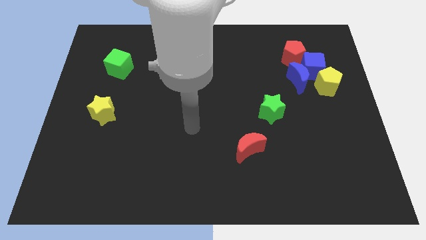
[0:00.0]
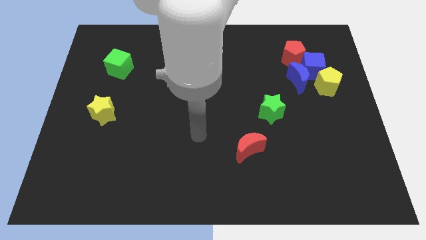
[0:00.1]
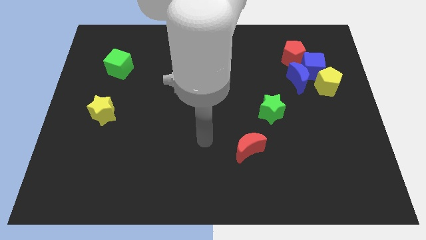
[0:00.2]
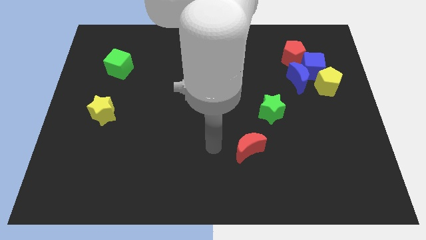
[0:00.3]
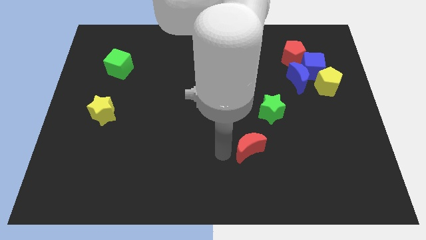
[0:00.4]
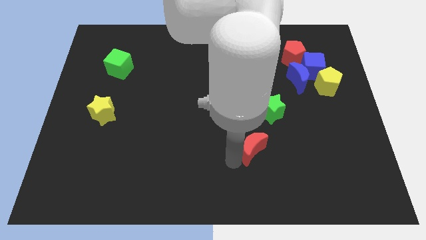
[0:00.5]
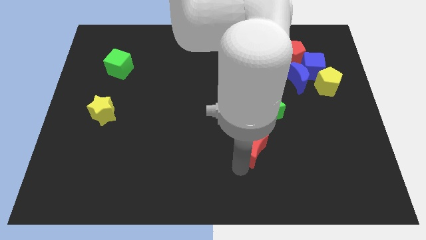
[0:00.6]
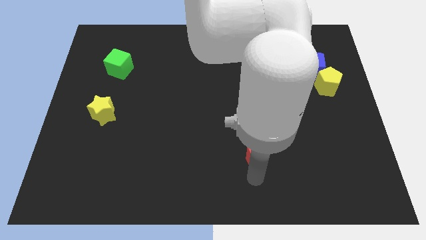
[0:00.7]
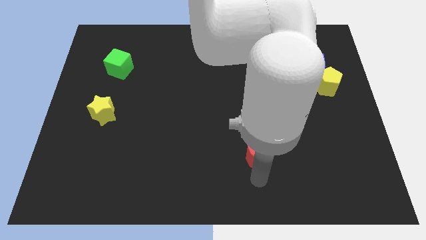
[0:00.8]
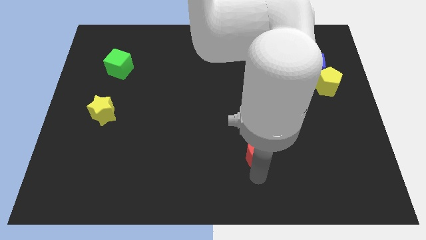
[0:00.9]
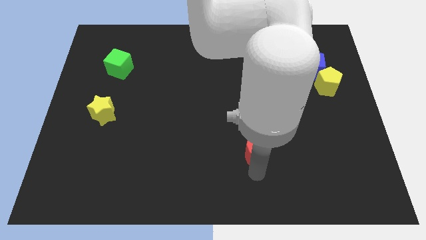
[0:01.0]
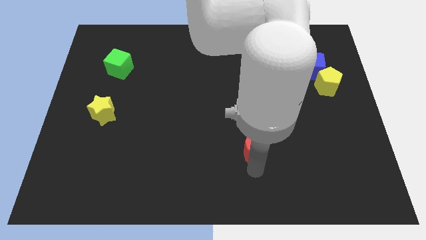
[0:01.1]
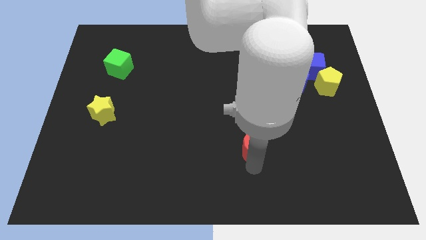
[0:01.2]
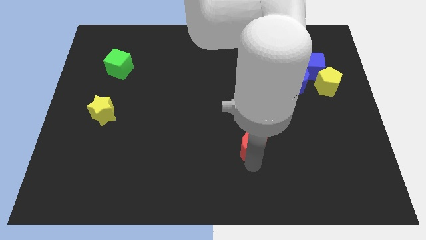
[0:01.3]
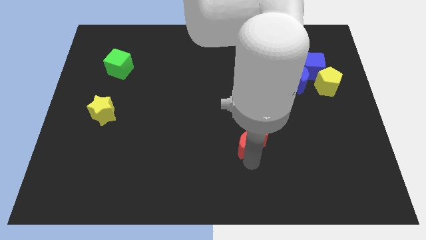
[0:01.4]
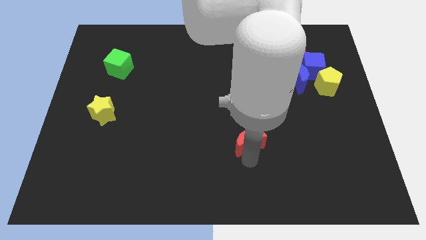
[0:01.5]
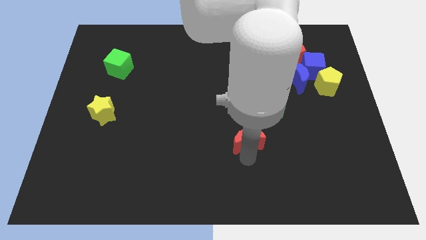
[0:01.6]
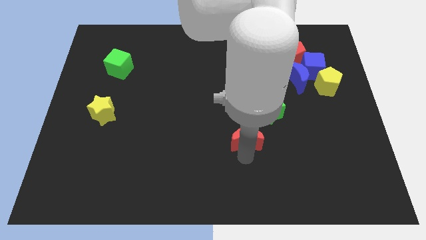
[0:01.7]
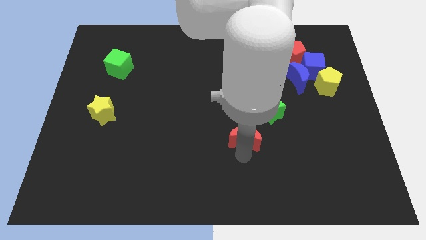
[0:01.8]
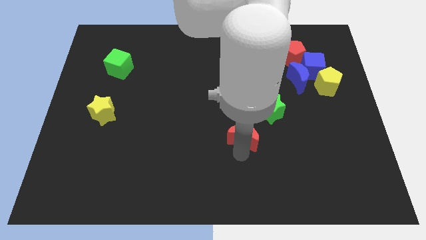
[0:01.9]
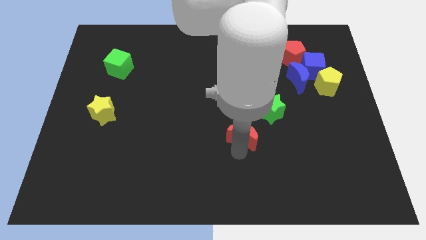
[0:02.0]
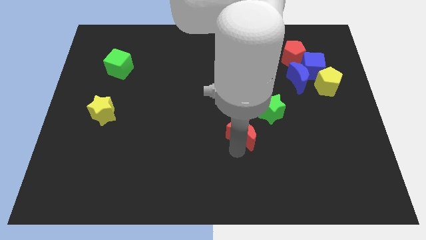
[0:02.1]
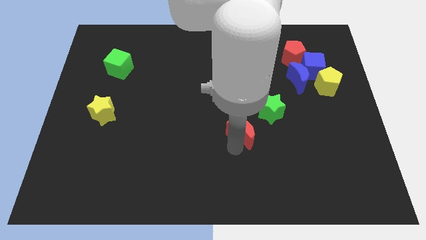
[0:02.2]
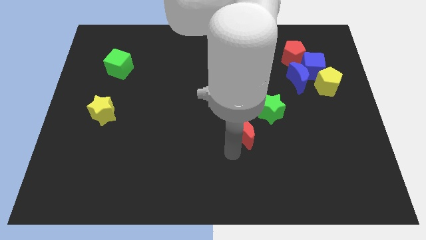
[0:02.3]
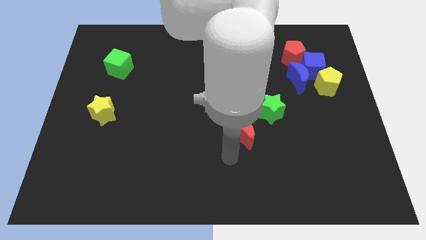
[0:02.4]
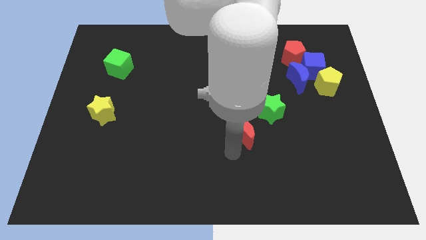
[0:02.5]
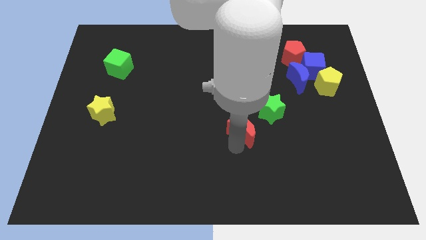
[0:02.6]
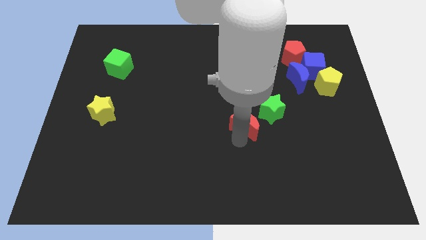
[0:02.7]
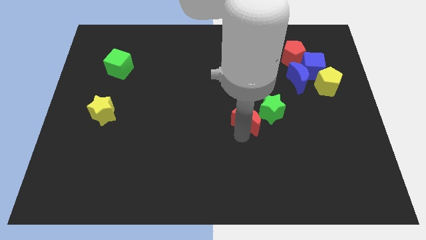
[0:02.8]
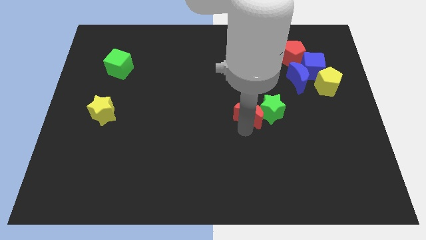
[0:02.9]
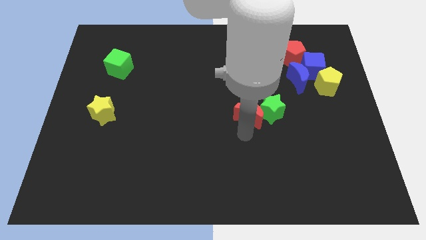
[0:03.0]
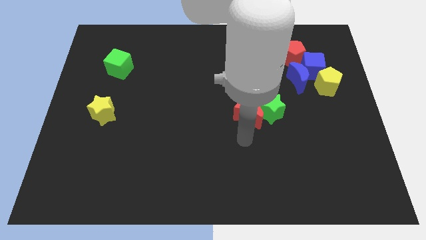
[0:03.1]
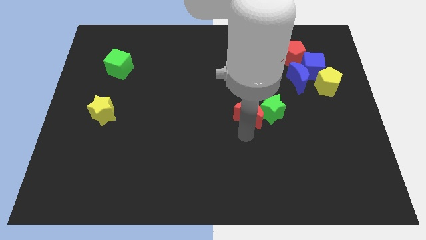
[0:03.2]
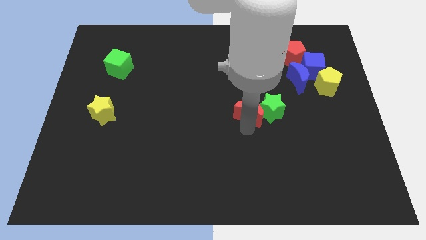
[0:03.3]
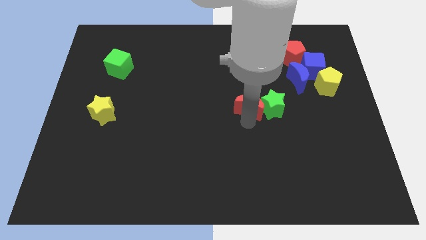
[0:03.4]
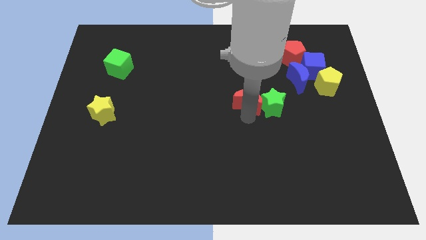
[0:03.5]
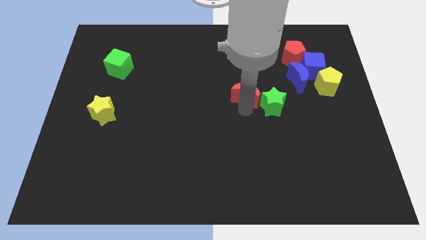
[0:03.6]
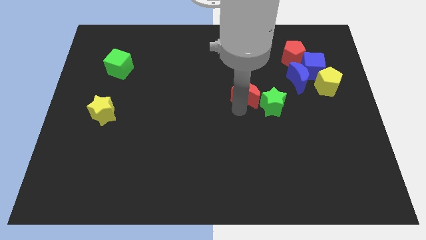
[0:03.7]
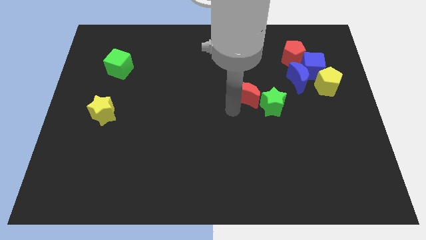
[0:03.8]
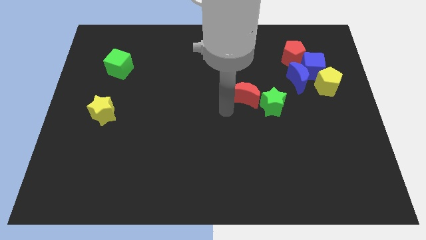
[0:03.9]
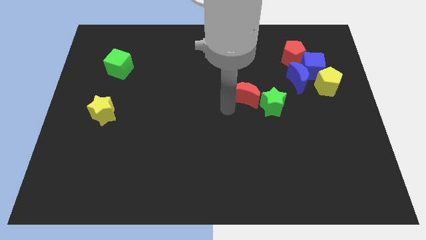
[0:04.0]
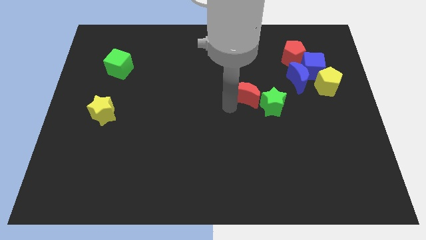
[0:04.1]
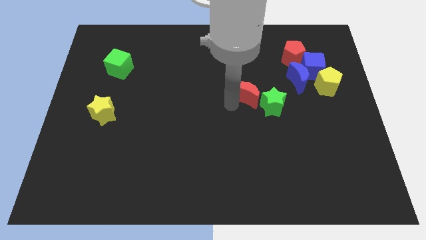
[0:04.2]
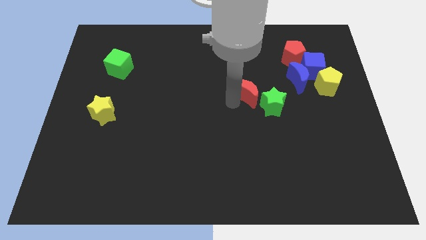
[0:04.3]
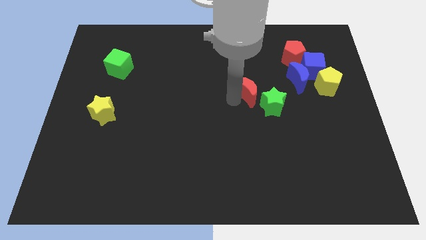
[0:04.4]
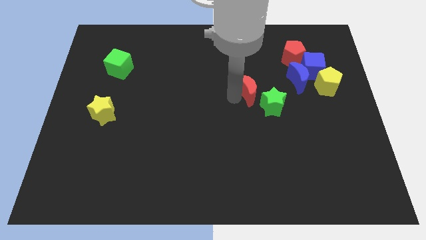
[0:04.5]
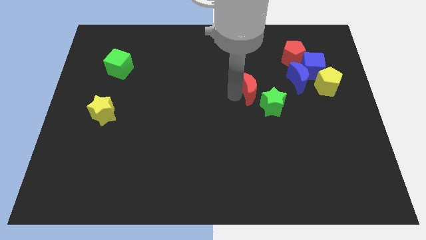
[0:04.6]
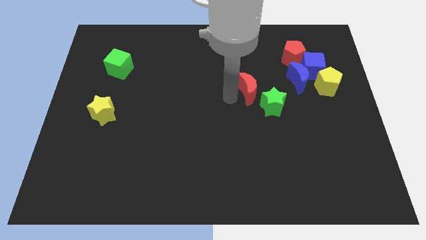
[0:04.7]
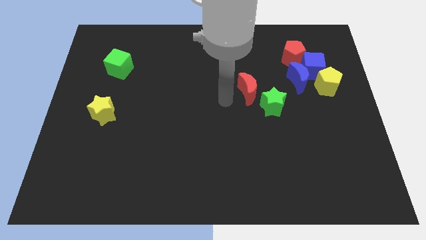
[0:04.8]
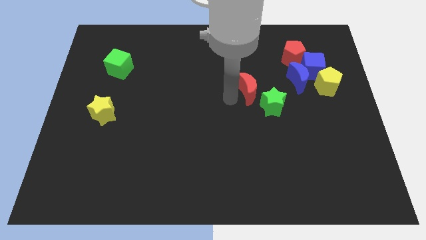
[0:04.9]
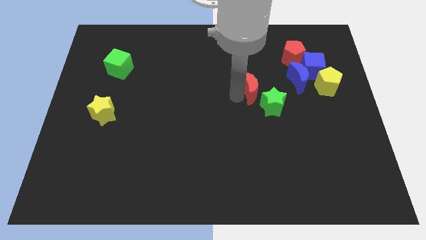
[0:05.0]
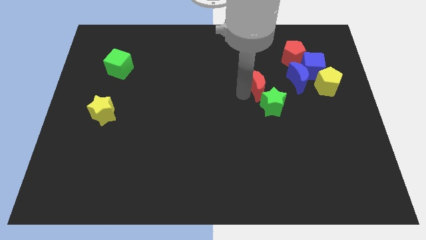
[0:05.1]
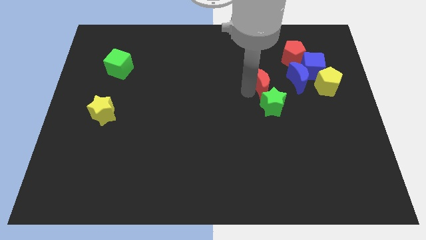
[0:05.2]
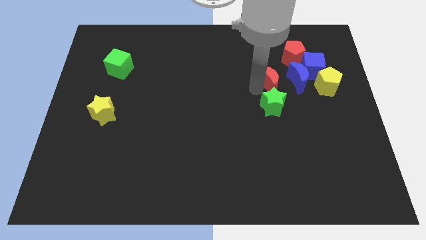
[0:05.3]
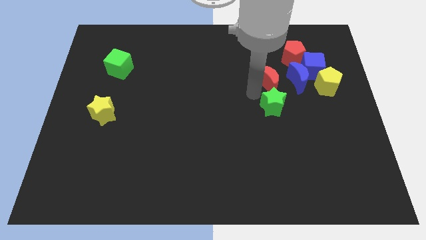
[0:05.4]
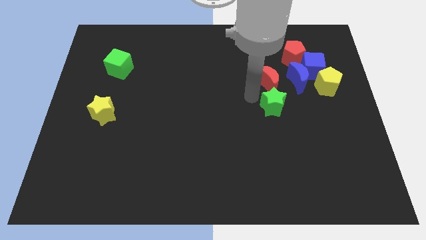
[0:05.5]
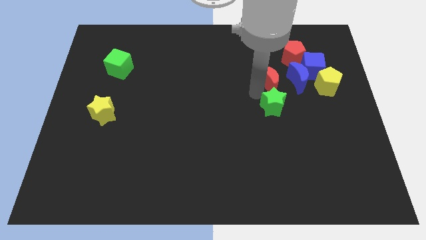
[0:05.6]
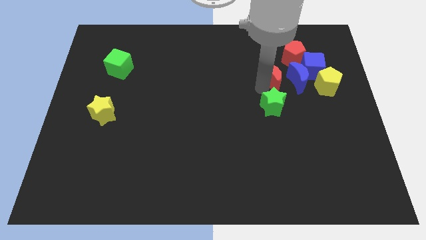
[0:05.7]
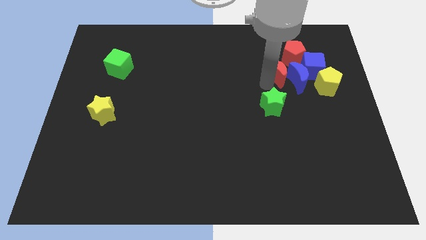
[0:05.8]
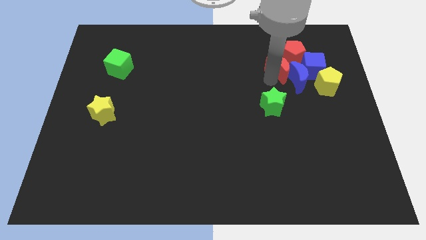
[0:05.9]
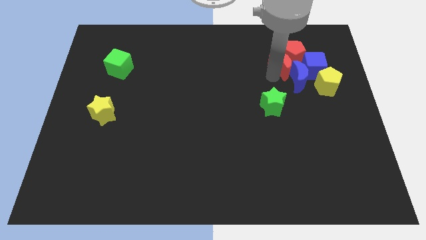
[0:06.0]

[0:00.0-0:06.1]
move the red moon to the red pentagon
